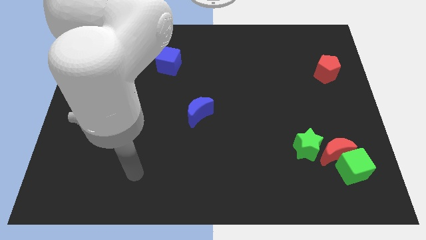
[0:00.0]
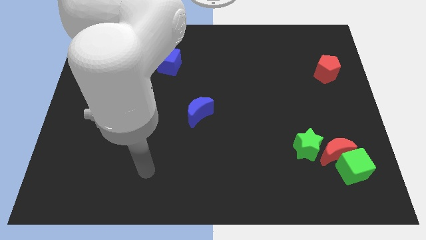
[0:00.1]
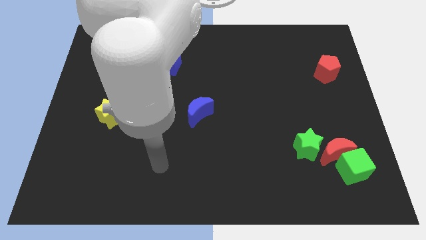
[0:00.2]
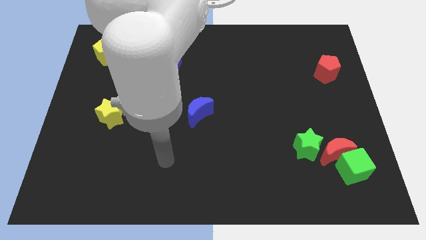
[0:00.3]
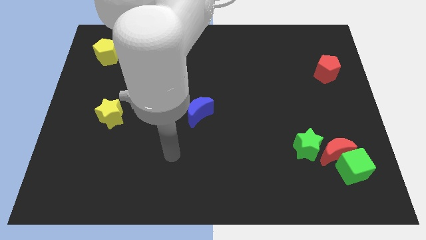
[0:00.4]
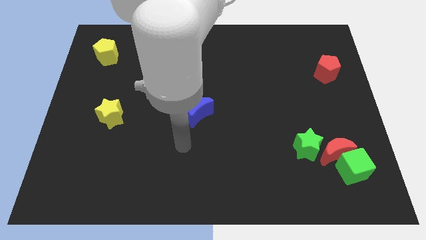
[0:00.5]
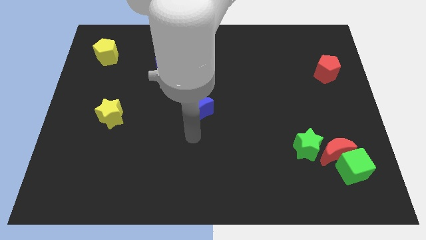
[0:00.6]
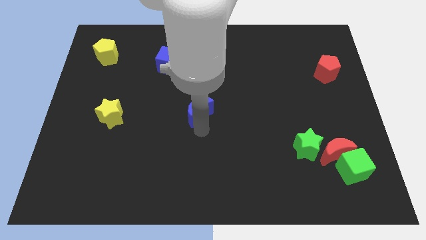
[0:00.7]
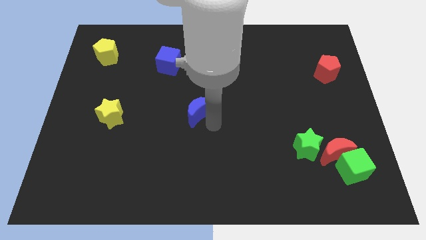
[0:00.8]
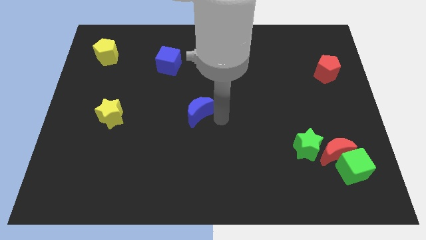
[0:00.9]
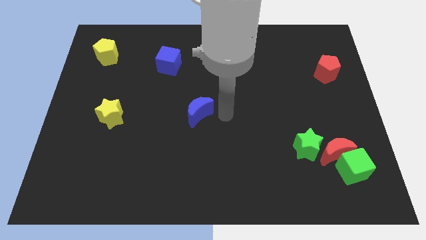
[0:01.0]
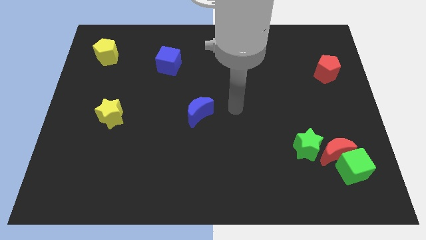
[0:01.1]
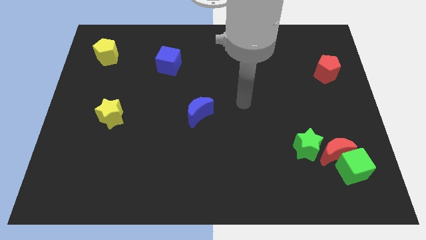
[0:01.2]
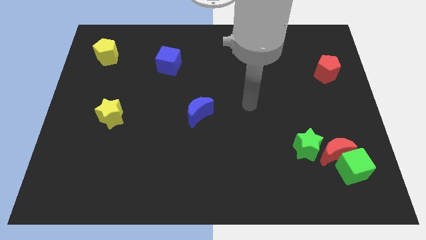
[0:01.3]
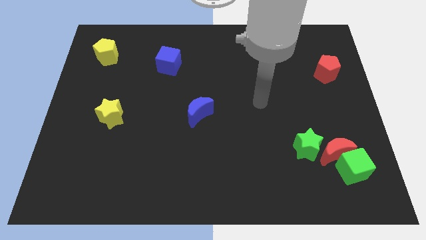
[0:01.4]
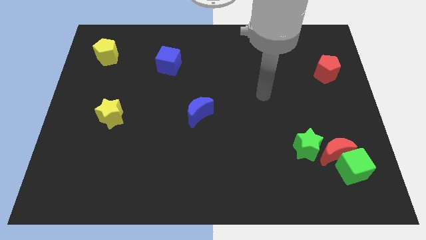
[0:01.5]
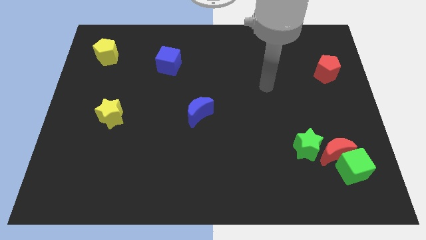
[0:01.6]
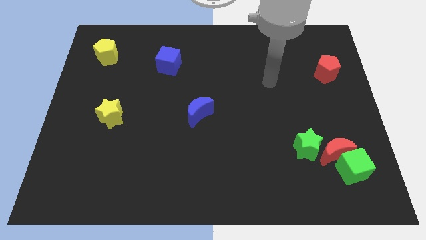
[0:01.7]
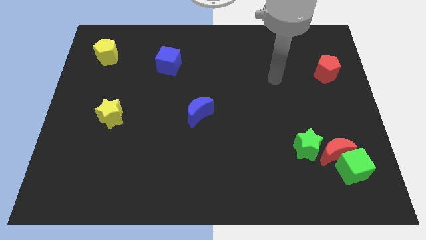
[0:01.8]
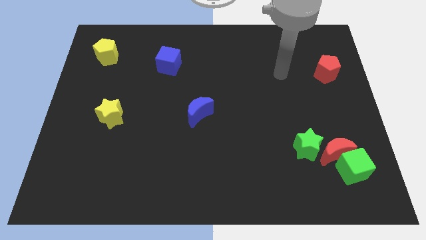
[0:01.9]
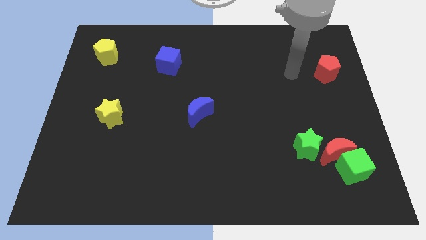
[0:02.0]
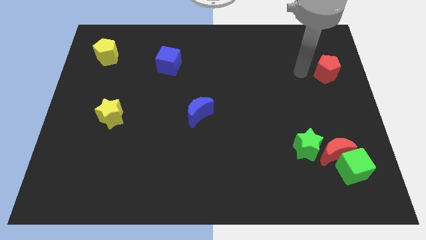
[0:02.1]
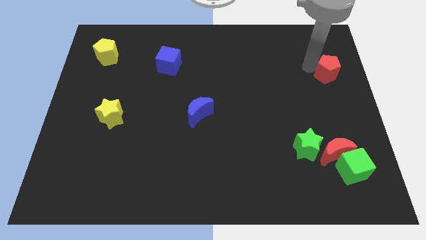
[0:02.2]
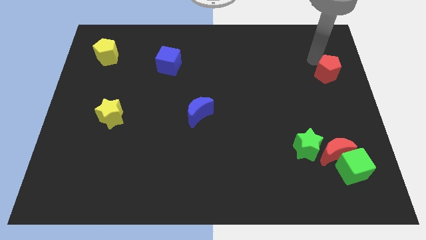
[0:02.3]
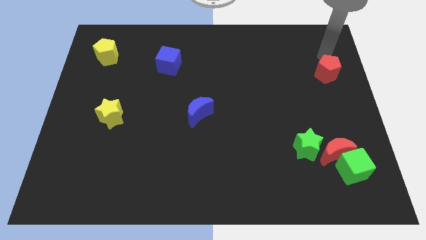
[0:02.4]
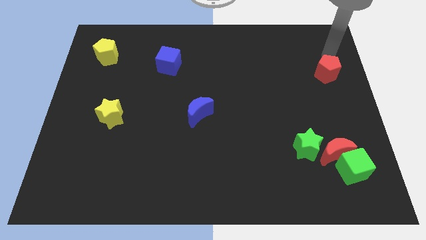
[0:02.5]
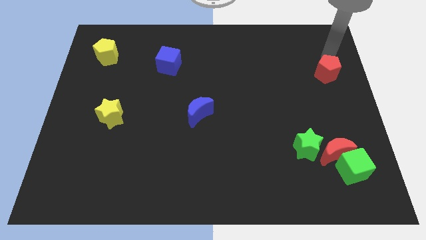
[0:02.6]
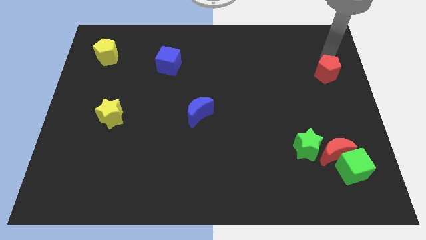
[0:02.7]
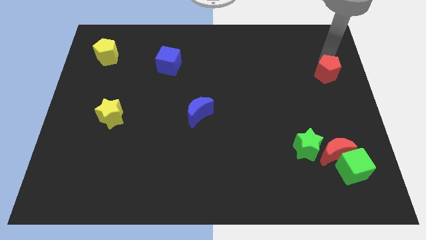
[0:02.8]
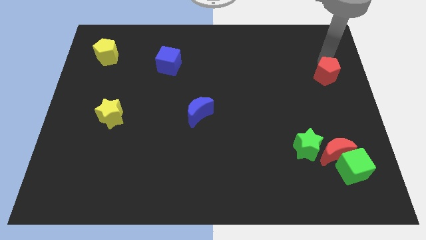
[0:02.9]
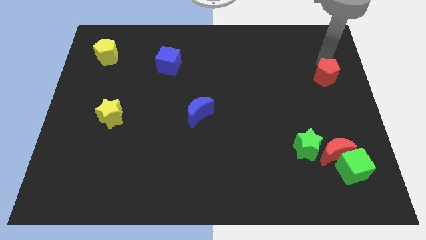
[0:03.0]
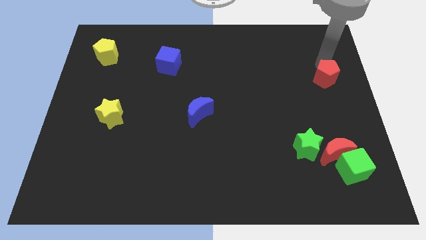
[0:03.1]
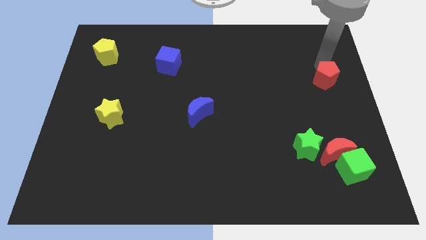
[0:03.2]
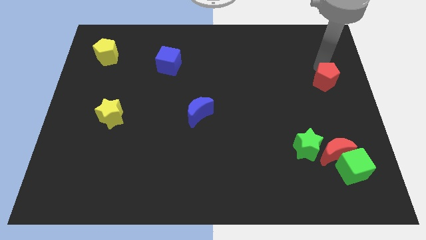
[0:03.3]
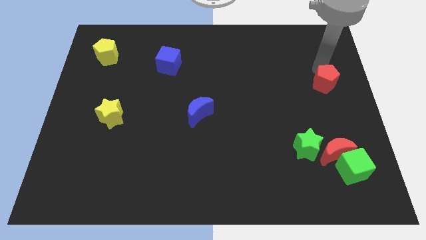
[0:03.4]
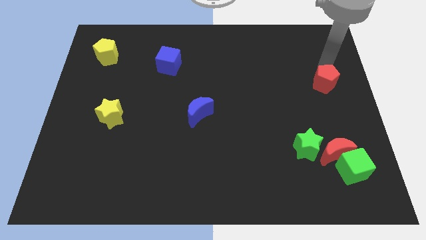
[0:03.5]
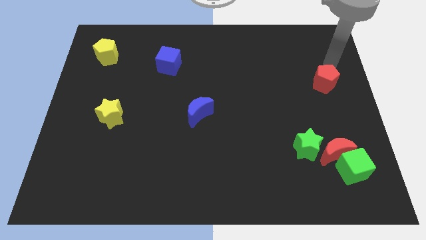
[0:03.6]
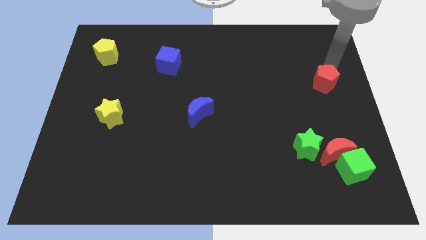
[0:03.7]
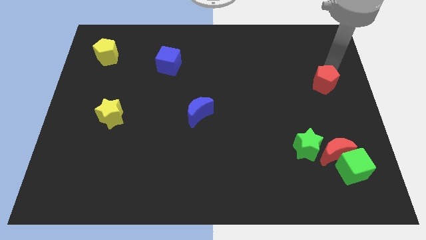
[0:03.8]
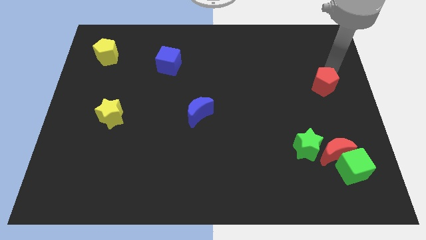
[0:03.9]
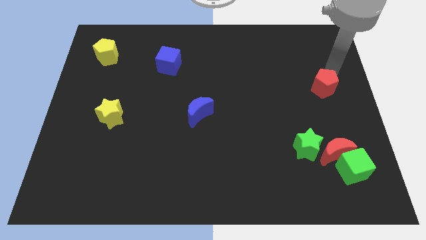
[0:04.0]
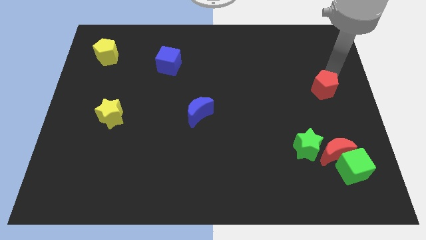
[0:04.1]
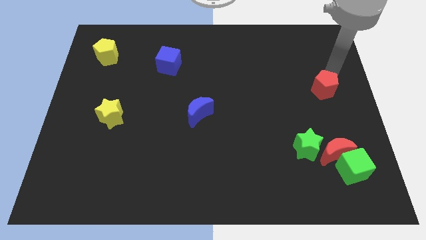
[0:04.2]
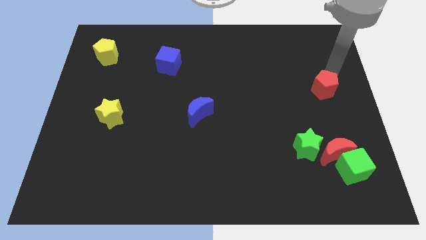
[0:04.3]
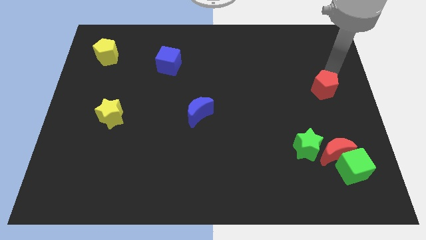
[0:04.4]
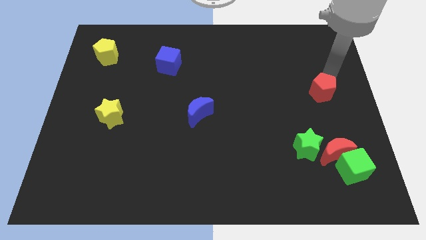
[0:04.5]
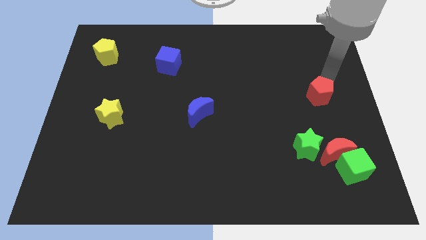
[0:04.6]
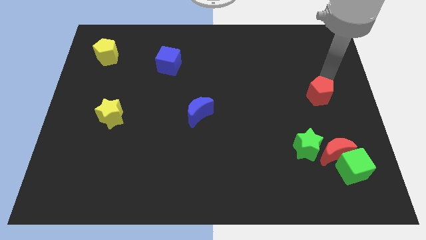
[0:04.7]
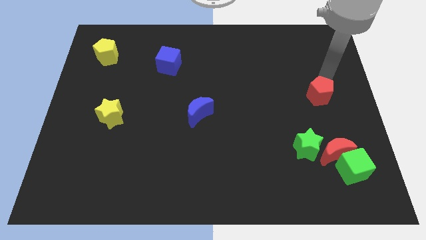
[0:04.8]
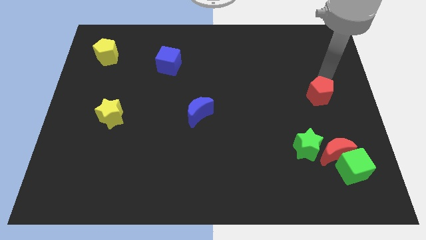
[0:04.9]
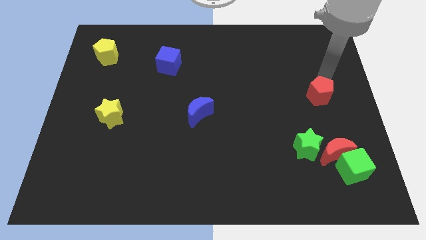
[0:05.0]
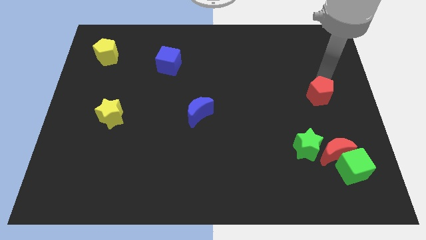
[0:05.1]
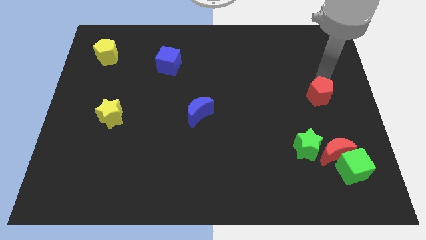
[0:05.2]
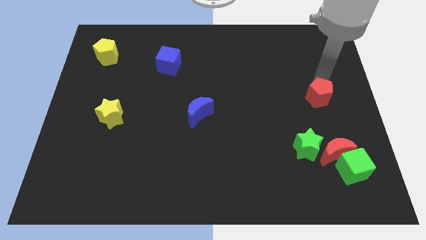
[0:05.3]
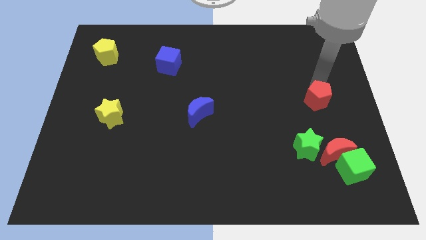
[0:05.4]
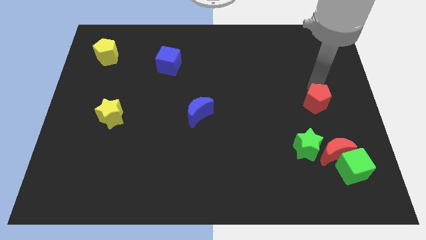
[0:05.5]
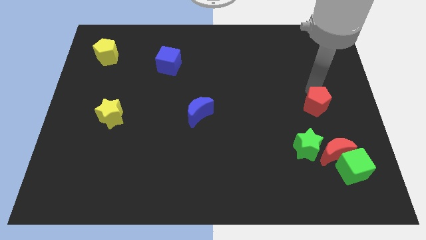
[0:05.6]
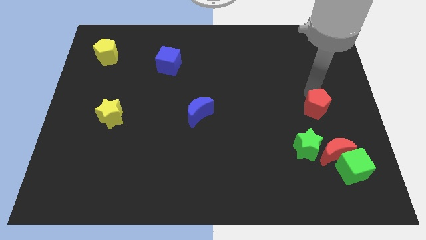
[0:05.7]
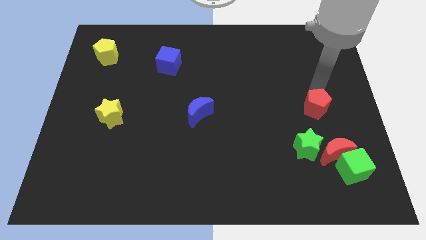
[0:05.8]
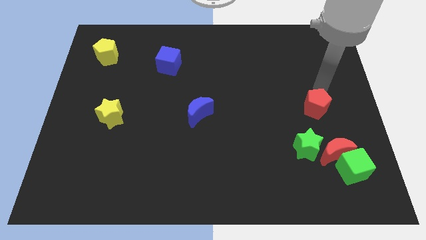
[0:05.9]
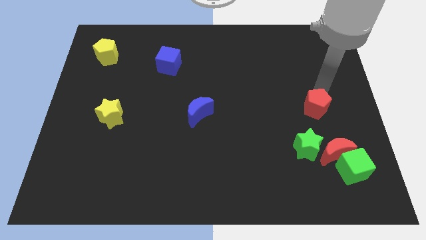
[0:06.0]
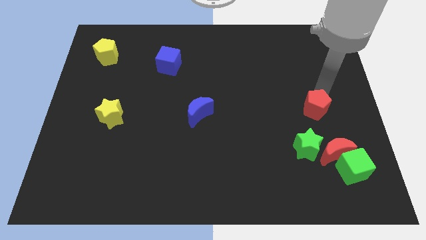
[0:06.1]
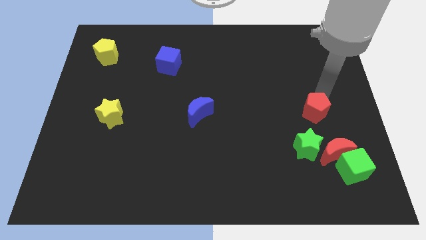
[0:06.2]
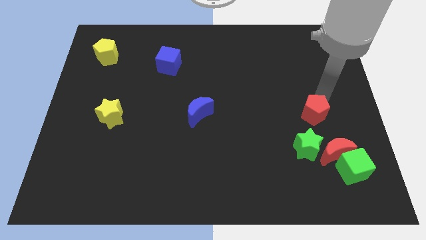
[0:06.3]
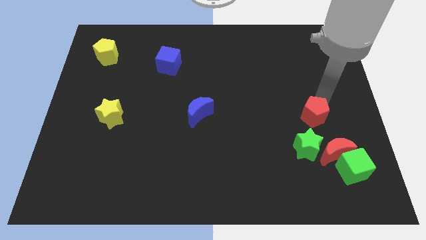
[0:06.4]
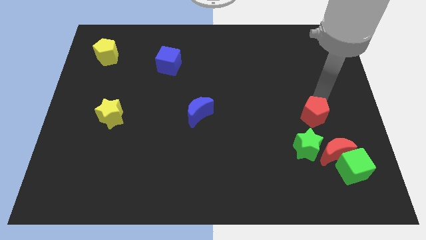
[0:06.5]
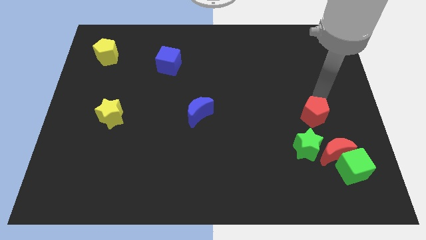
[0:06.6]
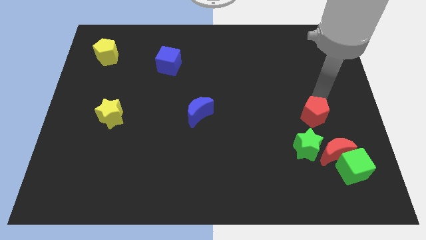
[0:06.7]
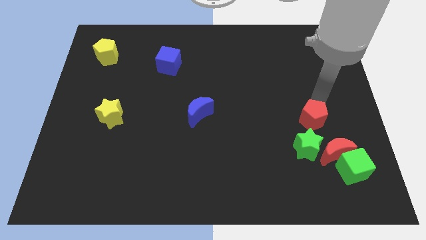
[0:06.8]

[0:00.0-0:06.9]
push the red pentagon diagonally up and to the left of the red moon

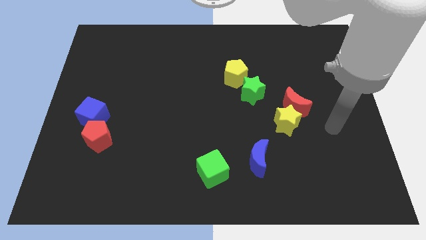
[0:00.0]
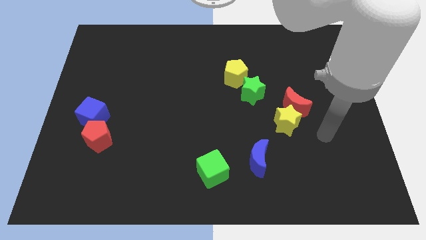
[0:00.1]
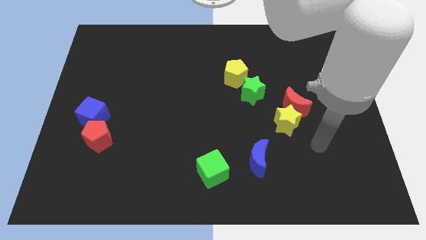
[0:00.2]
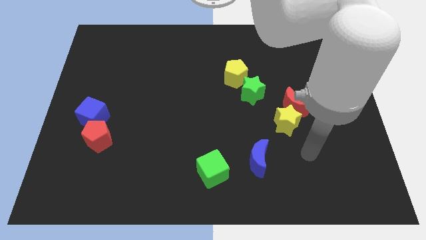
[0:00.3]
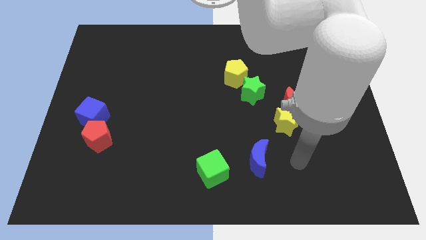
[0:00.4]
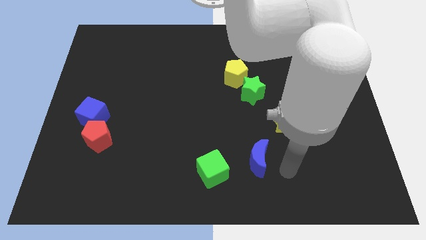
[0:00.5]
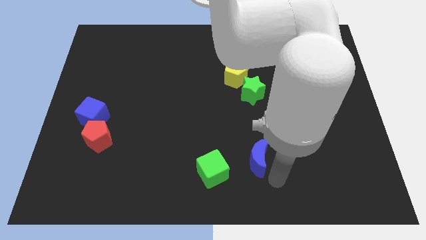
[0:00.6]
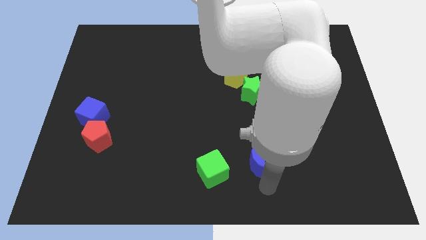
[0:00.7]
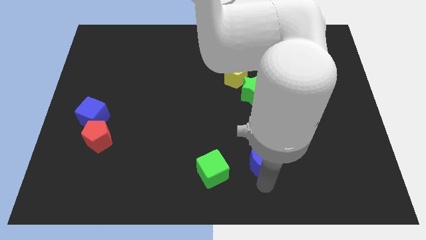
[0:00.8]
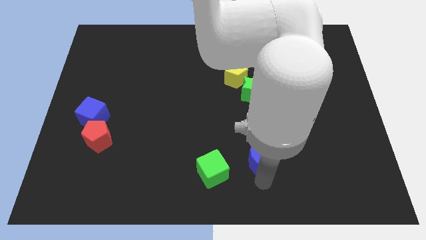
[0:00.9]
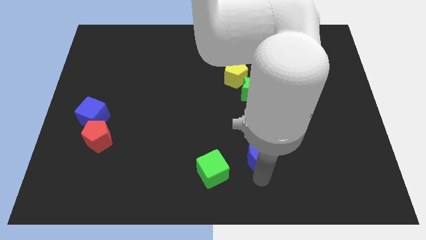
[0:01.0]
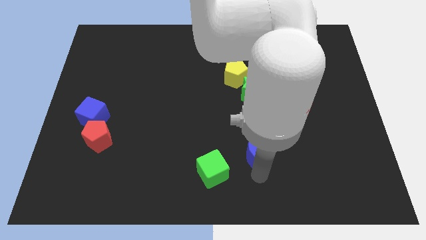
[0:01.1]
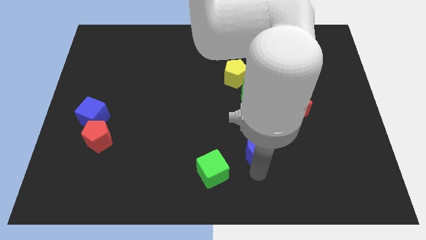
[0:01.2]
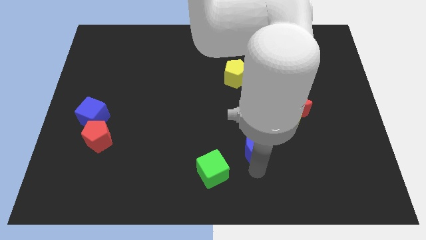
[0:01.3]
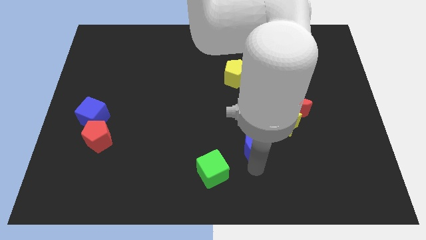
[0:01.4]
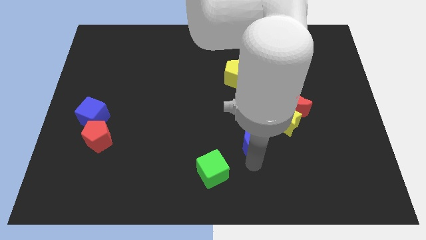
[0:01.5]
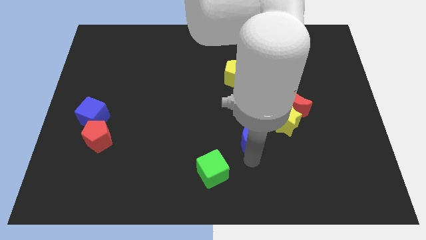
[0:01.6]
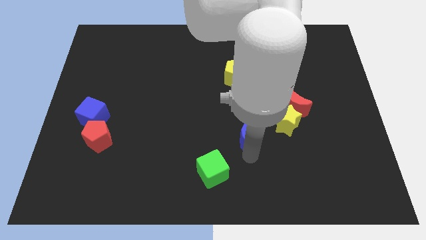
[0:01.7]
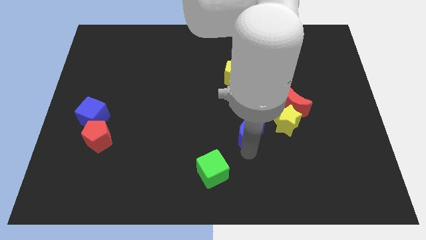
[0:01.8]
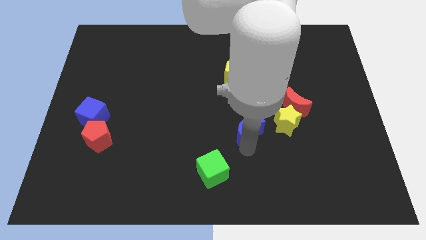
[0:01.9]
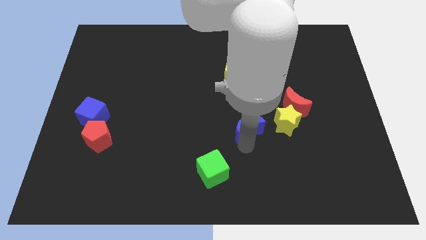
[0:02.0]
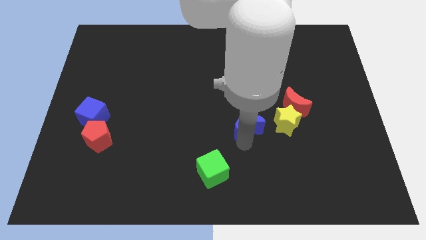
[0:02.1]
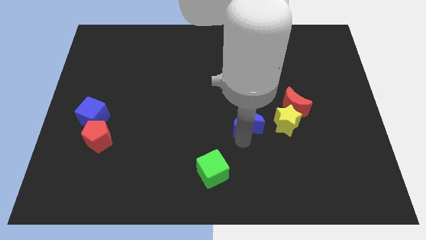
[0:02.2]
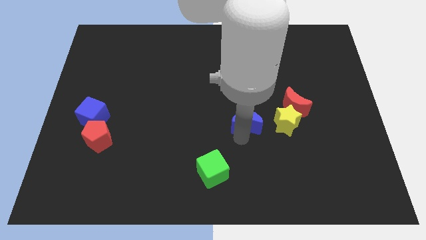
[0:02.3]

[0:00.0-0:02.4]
put the blue moon left of the red moon
